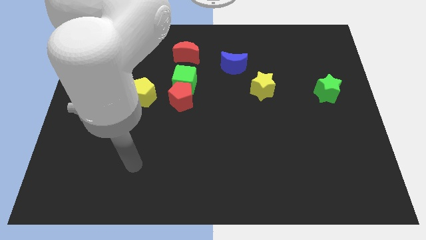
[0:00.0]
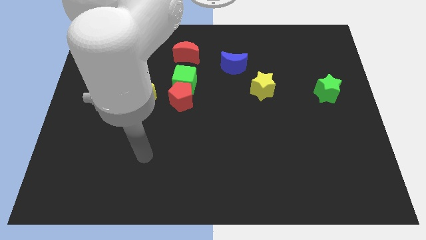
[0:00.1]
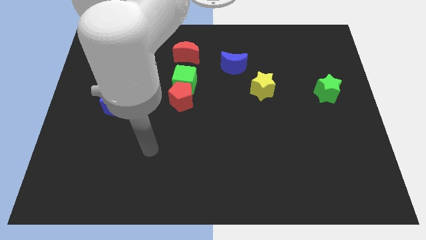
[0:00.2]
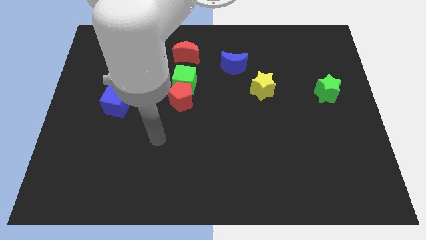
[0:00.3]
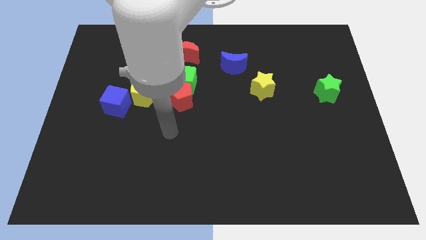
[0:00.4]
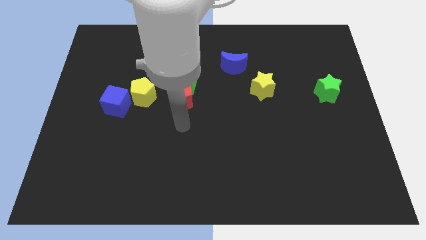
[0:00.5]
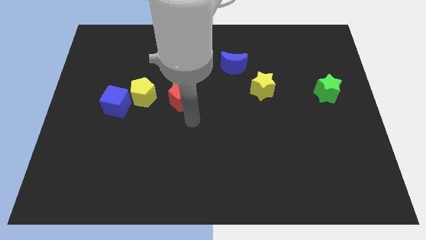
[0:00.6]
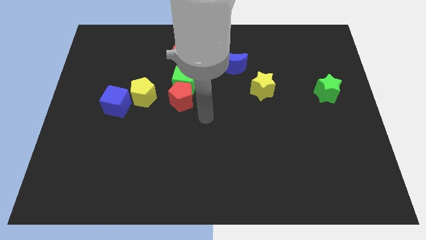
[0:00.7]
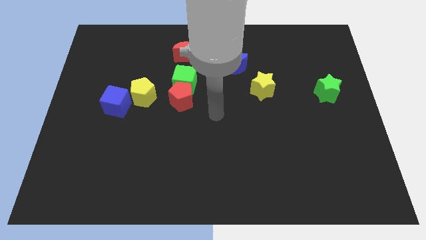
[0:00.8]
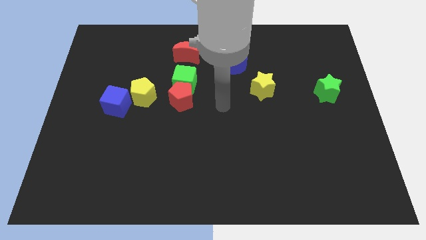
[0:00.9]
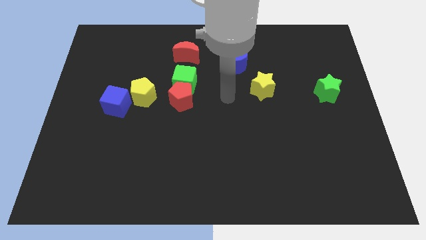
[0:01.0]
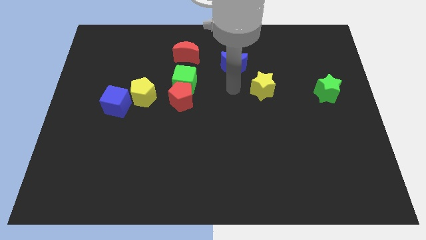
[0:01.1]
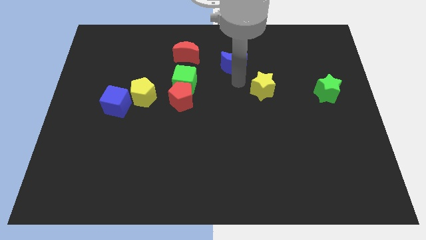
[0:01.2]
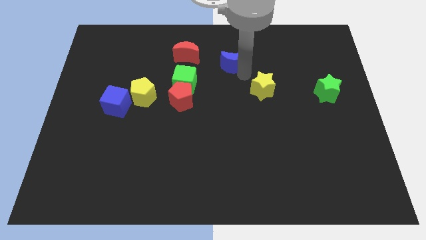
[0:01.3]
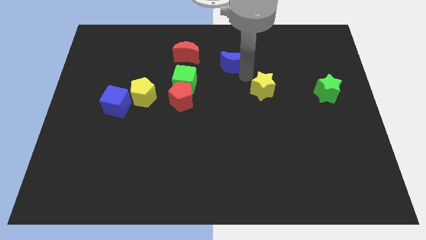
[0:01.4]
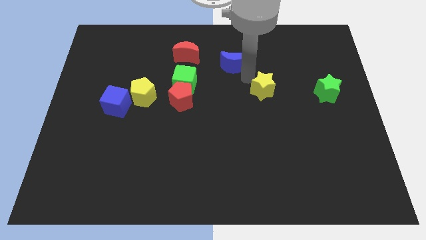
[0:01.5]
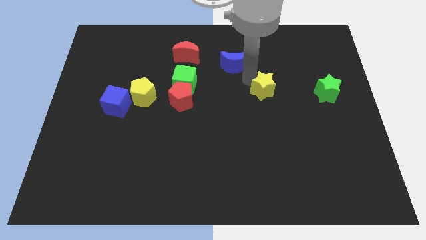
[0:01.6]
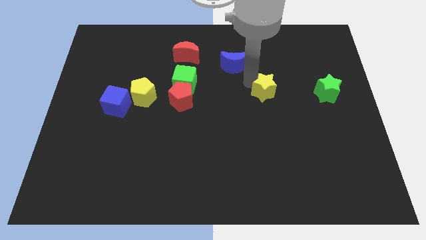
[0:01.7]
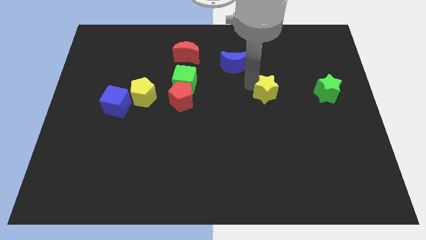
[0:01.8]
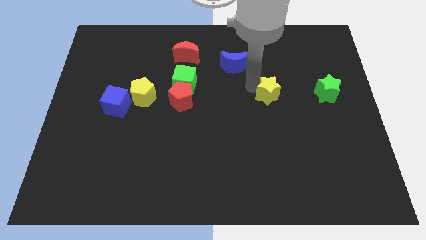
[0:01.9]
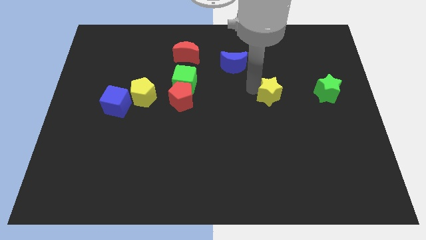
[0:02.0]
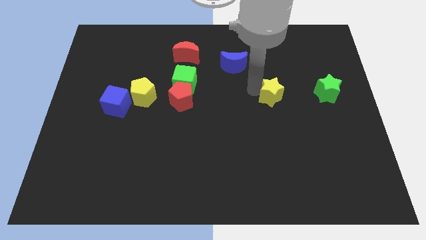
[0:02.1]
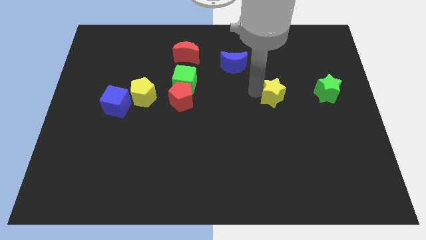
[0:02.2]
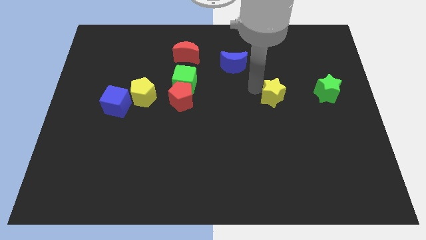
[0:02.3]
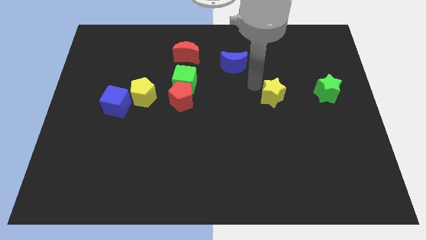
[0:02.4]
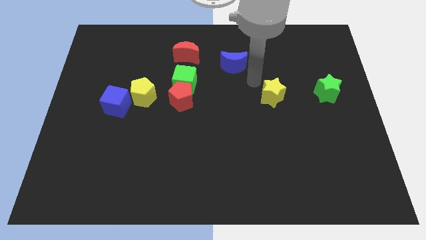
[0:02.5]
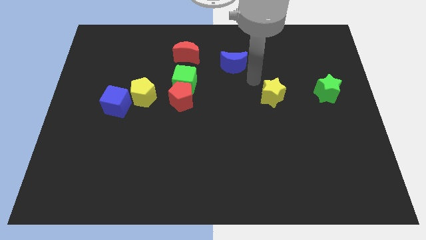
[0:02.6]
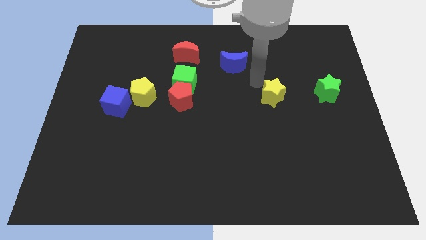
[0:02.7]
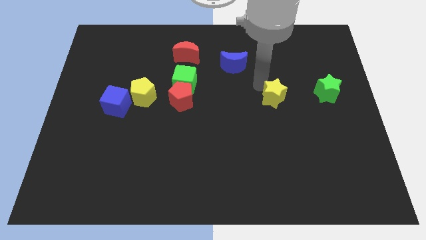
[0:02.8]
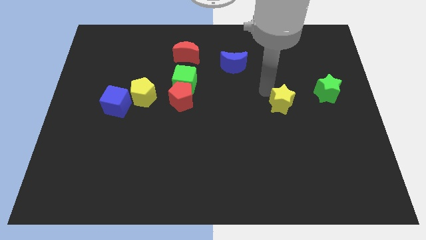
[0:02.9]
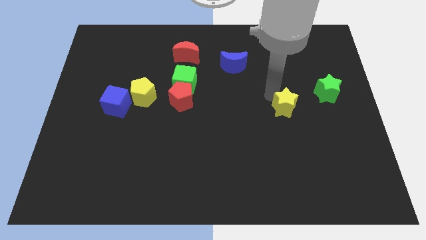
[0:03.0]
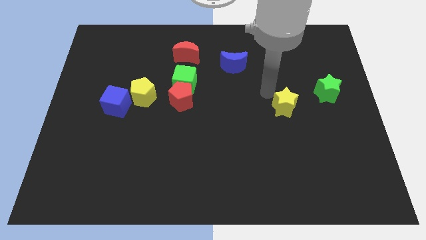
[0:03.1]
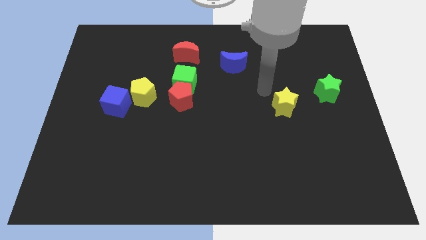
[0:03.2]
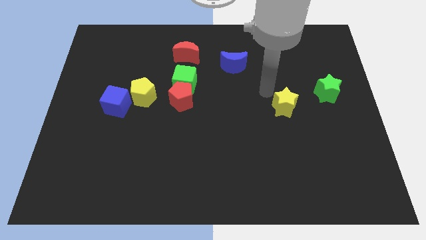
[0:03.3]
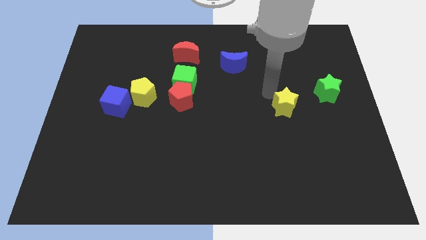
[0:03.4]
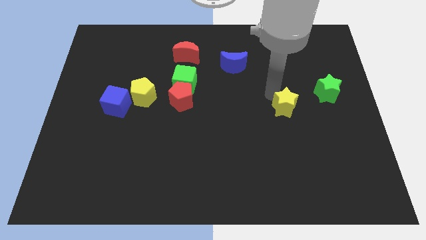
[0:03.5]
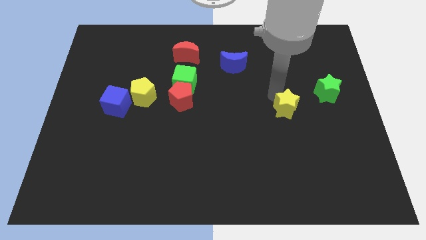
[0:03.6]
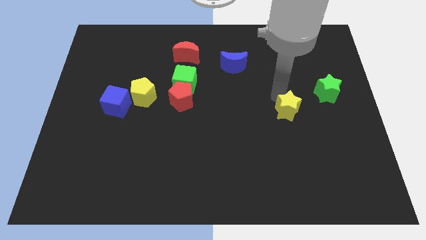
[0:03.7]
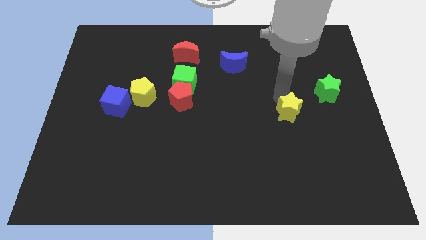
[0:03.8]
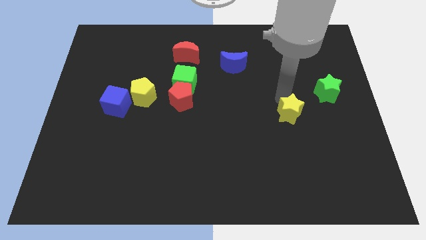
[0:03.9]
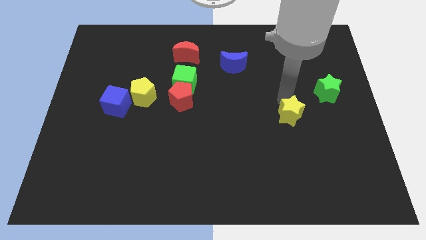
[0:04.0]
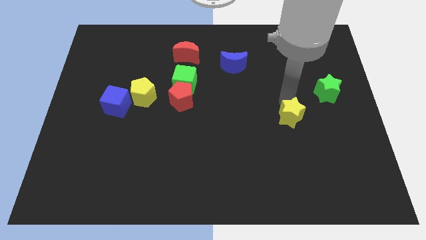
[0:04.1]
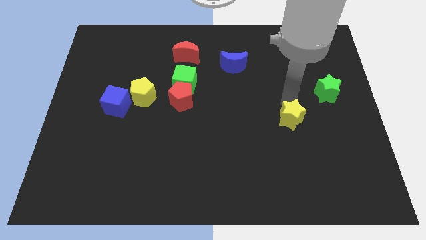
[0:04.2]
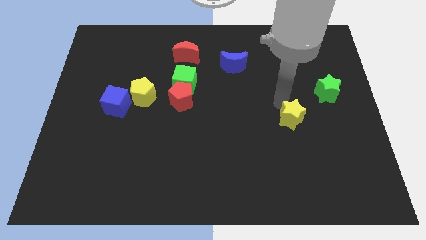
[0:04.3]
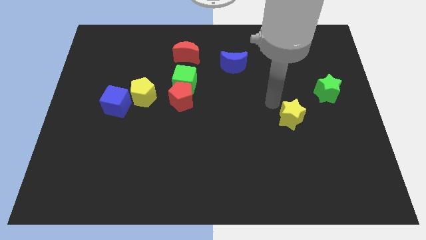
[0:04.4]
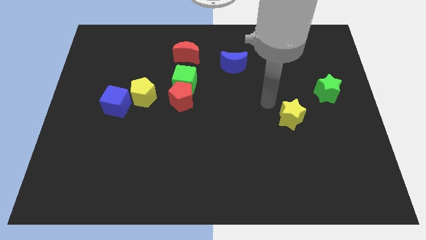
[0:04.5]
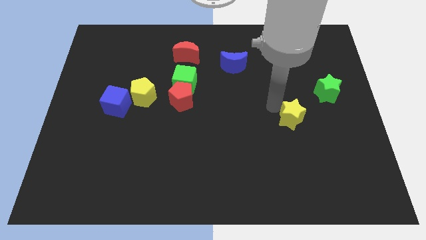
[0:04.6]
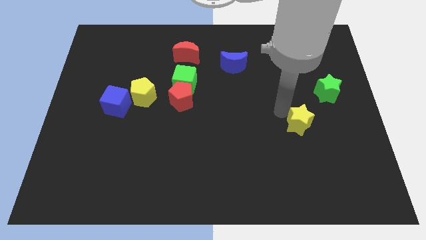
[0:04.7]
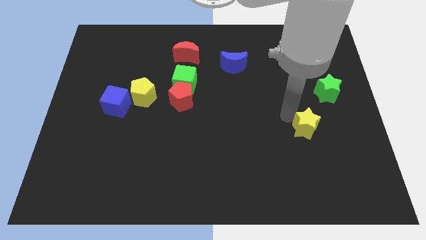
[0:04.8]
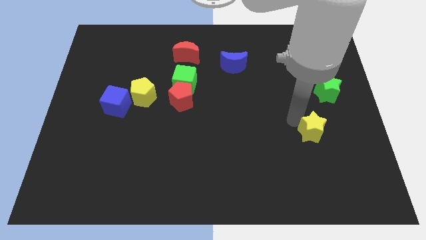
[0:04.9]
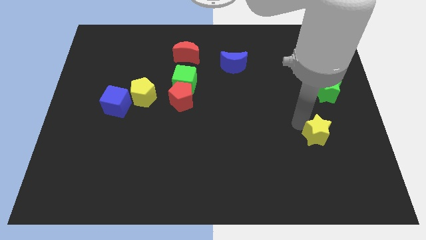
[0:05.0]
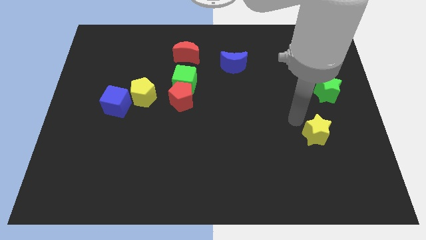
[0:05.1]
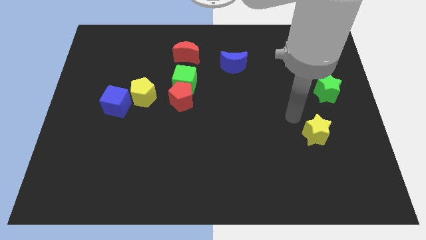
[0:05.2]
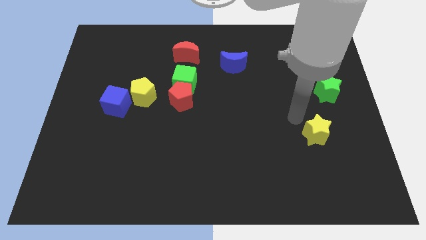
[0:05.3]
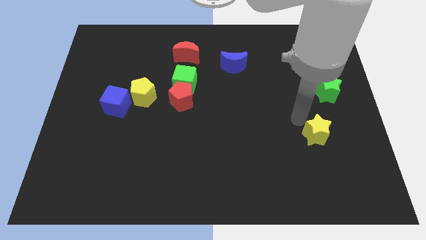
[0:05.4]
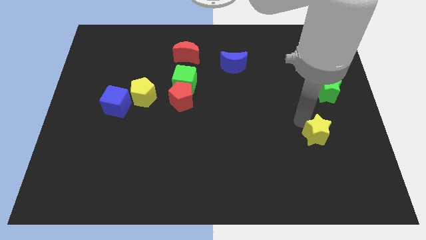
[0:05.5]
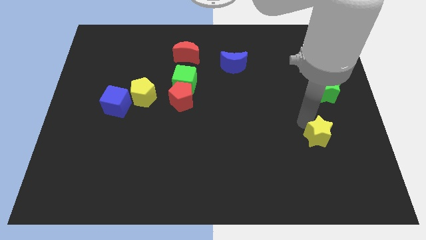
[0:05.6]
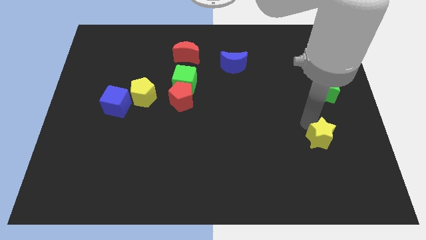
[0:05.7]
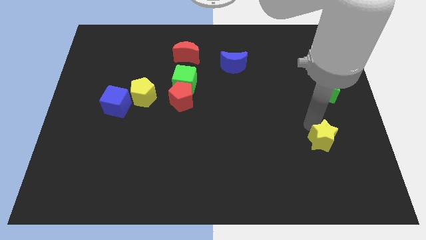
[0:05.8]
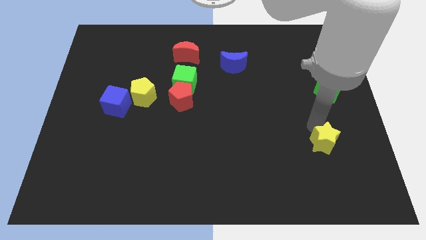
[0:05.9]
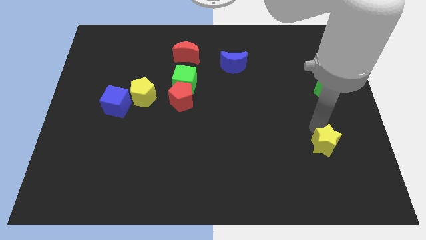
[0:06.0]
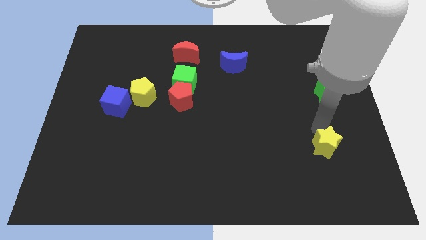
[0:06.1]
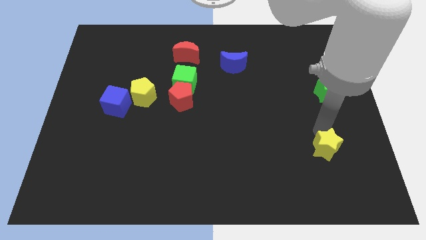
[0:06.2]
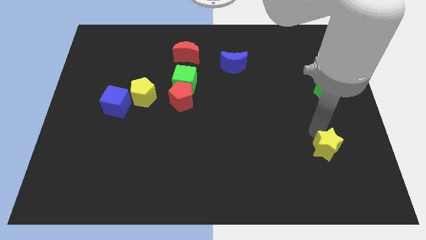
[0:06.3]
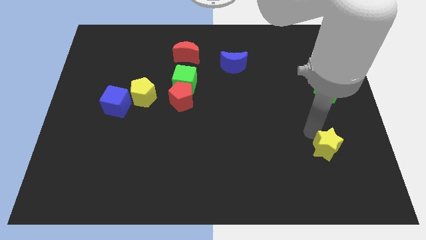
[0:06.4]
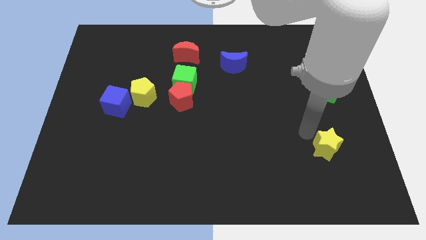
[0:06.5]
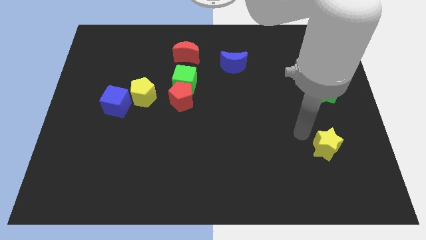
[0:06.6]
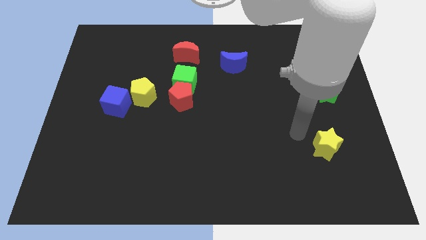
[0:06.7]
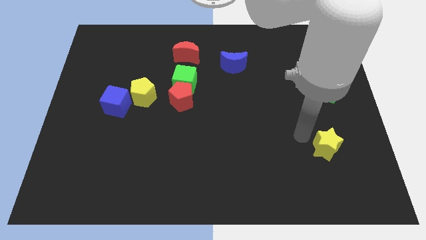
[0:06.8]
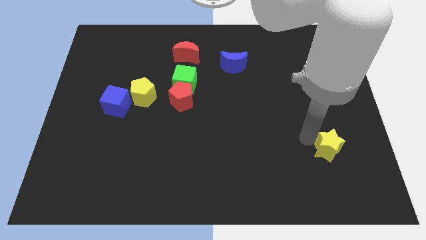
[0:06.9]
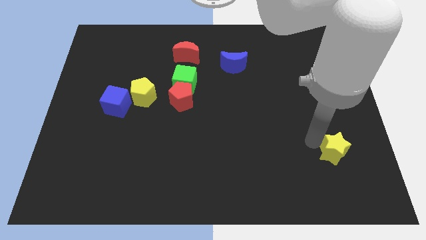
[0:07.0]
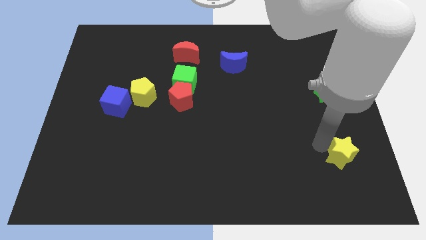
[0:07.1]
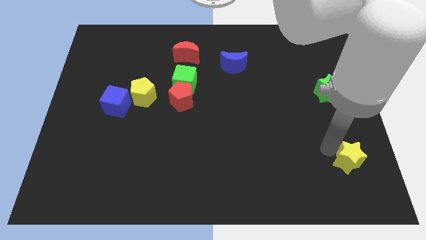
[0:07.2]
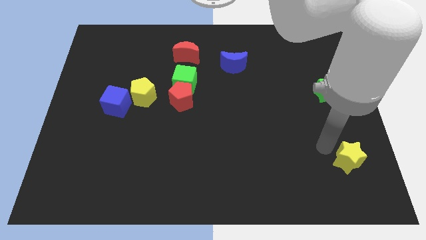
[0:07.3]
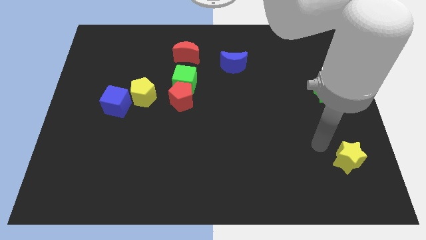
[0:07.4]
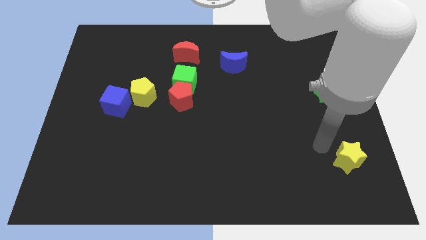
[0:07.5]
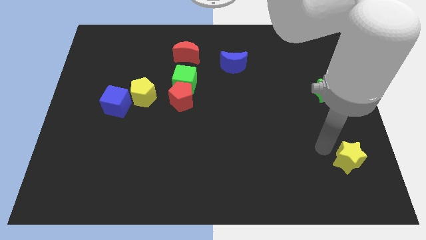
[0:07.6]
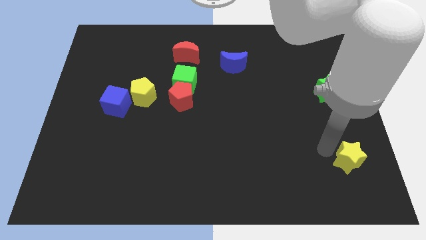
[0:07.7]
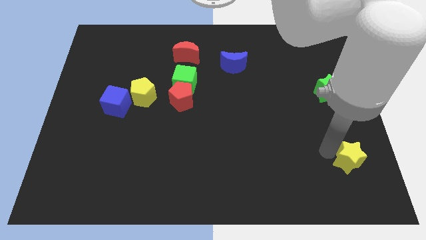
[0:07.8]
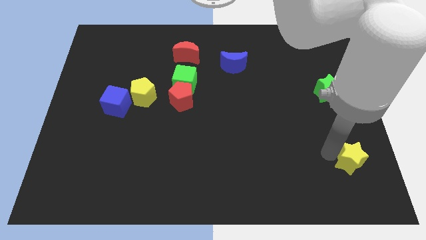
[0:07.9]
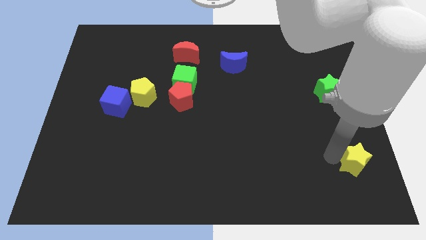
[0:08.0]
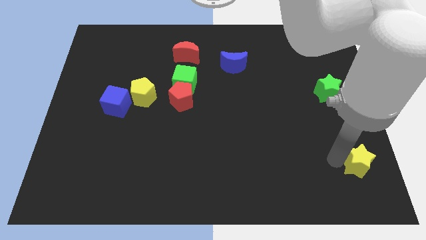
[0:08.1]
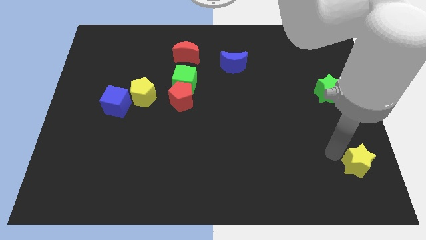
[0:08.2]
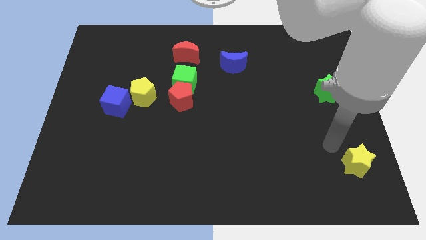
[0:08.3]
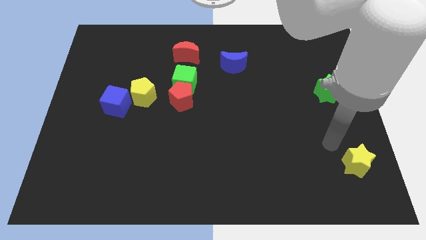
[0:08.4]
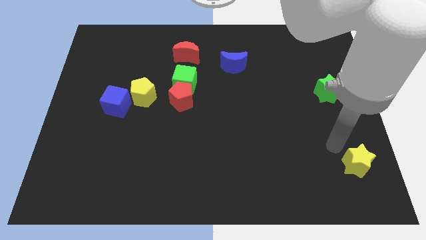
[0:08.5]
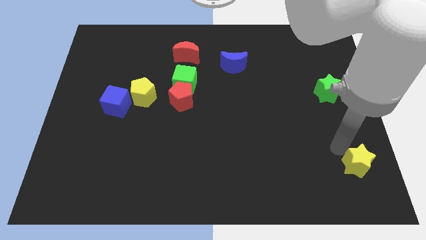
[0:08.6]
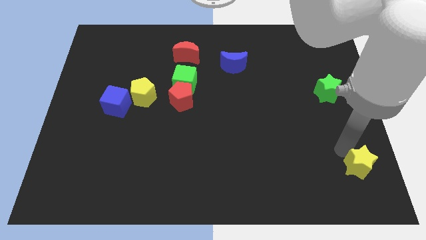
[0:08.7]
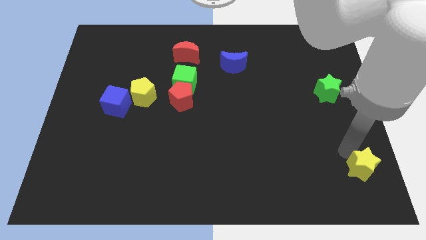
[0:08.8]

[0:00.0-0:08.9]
slide the yellow star to the bottom right of the board
